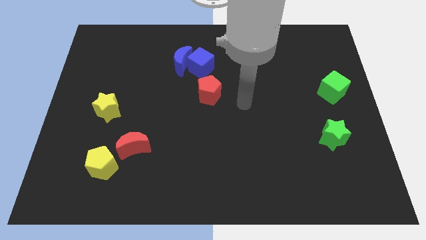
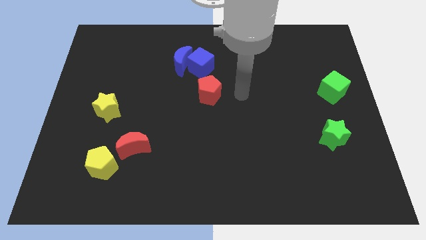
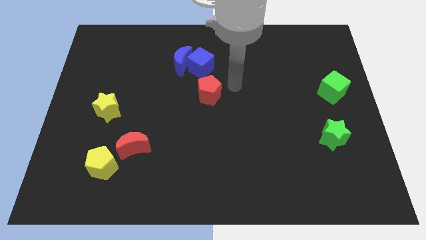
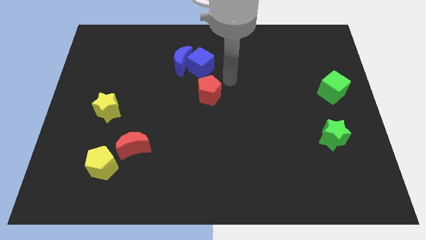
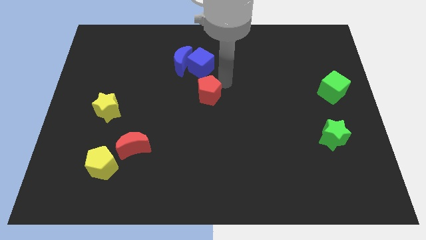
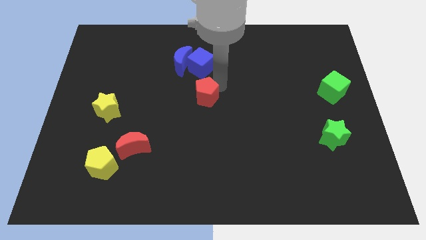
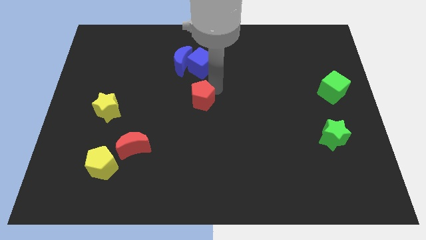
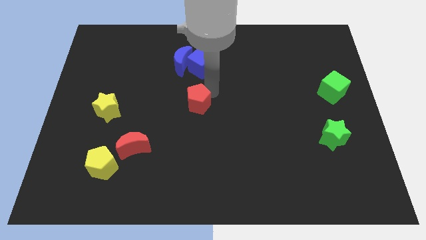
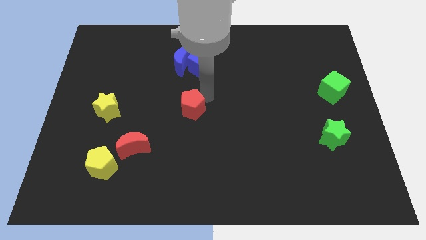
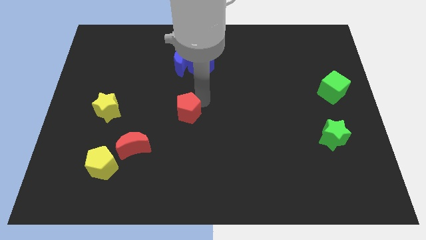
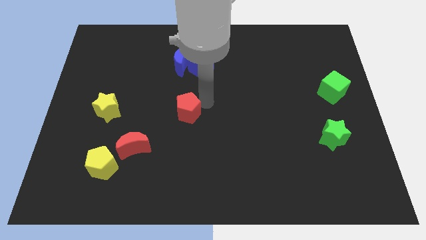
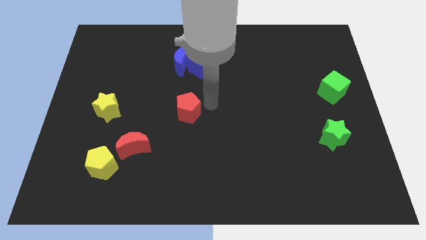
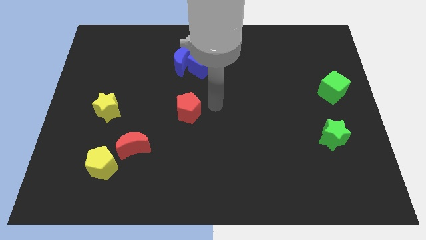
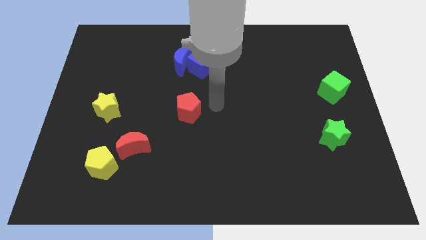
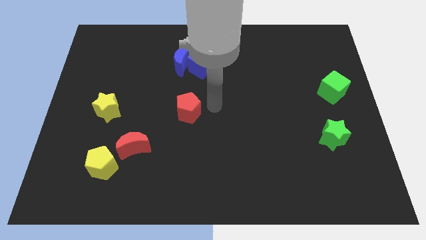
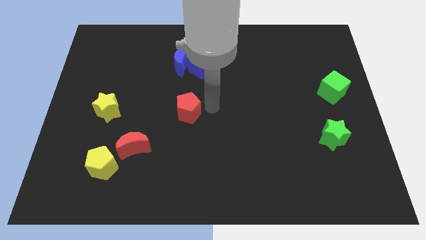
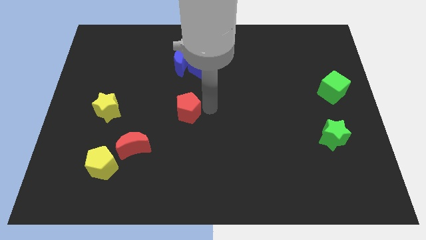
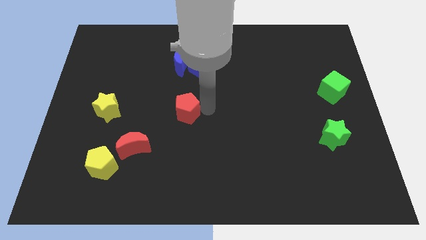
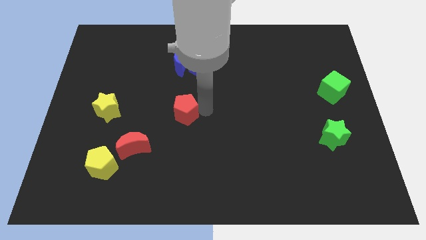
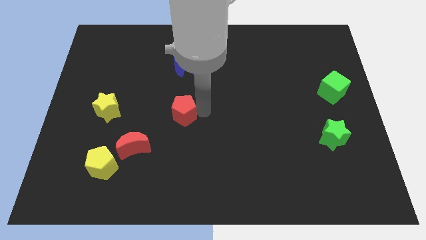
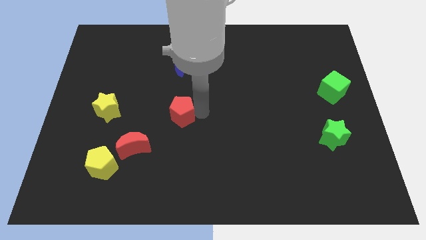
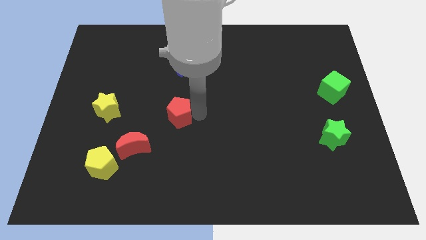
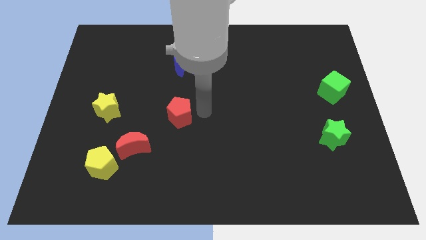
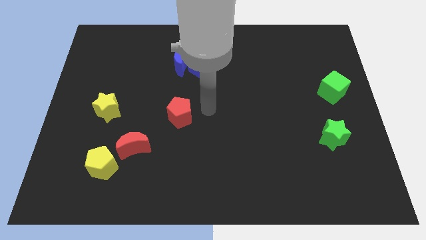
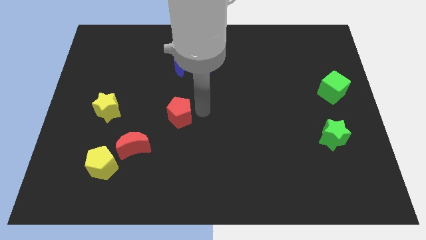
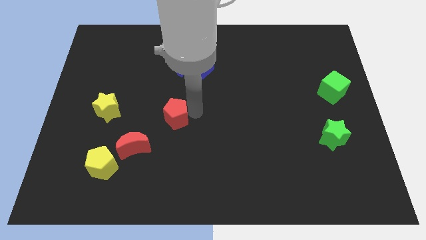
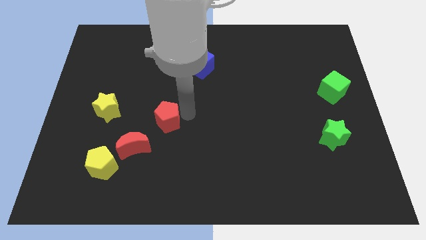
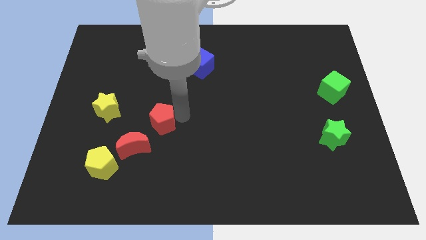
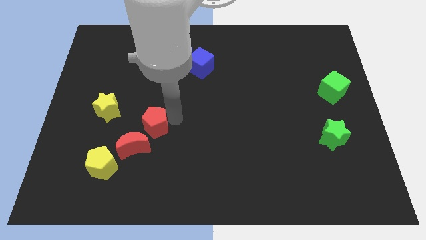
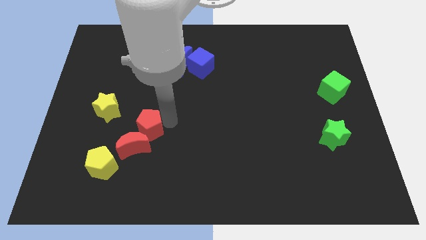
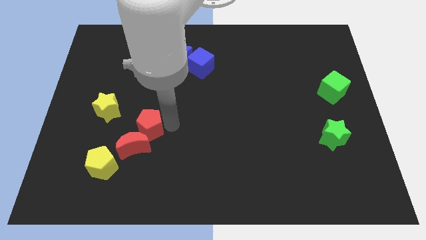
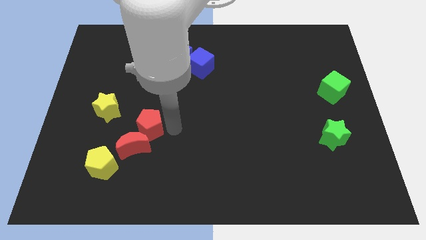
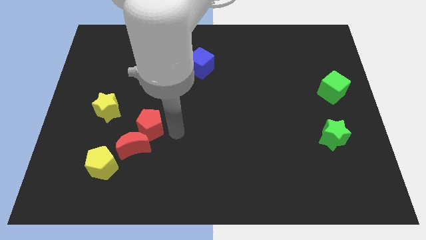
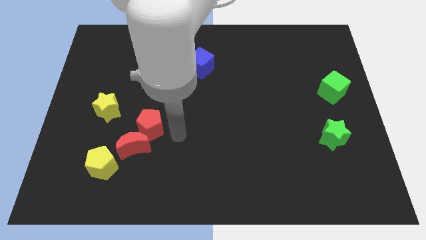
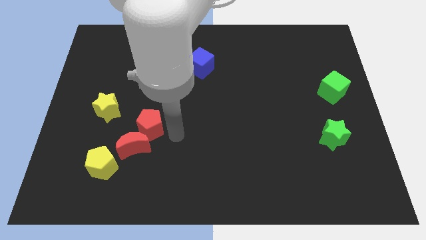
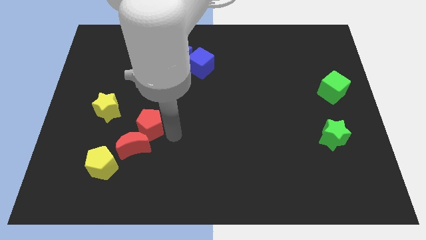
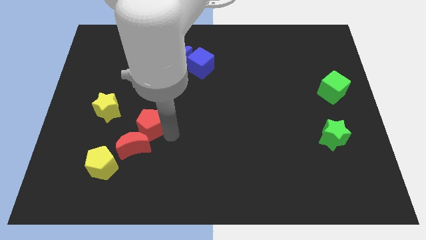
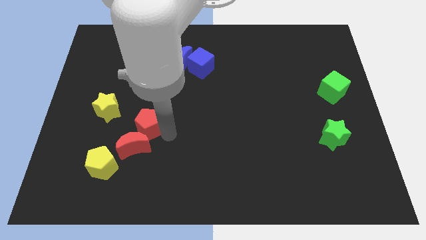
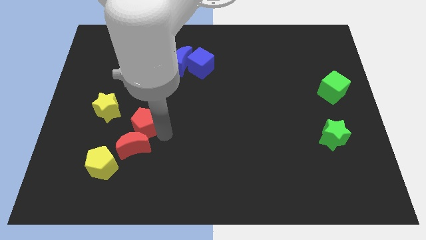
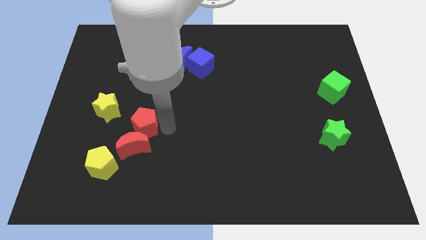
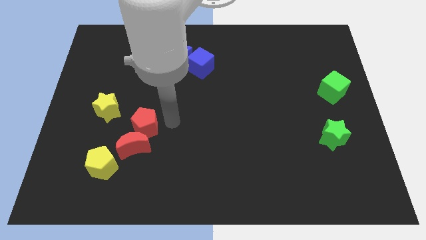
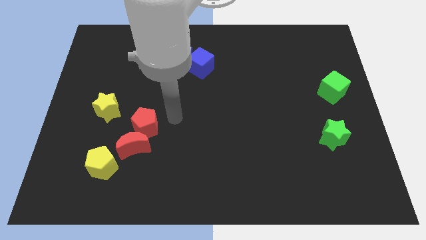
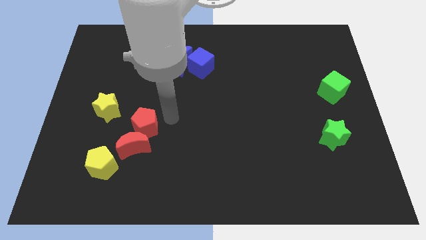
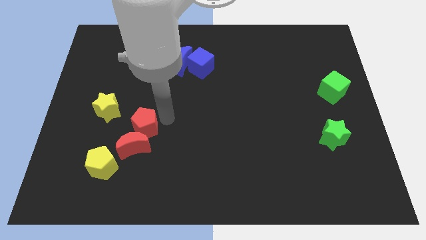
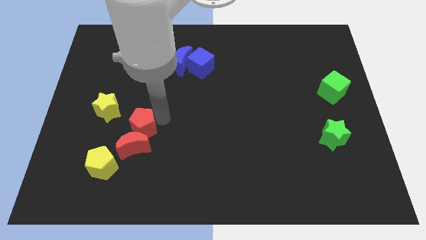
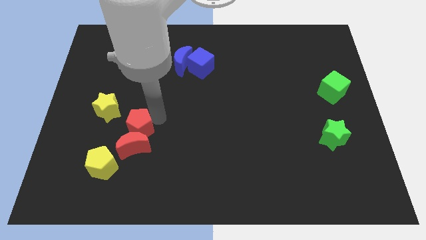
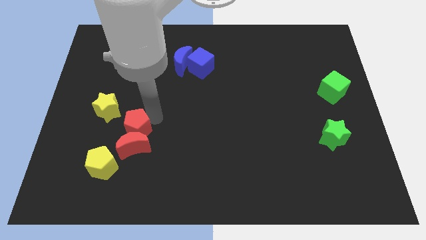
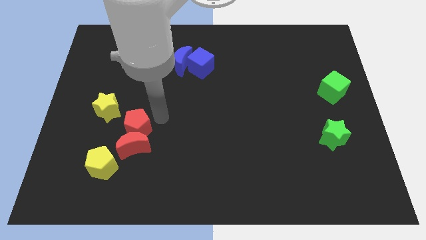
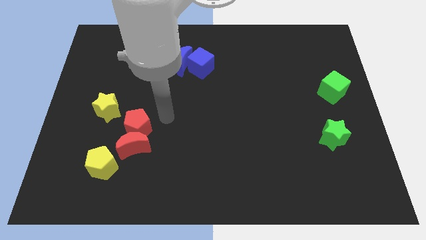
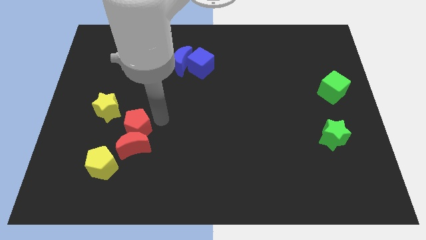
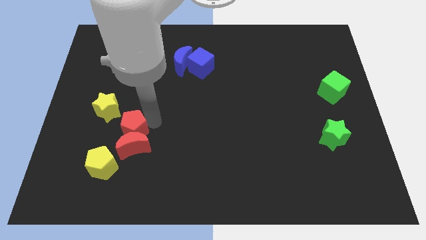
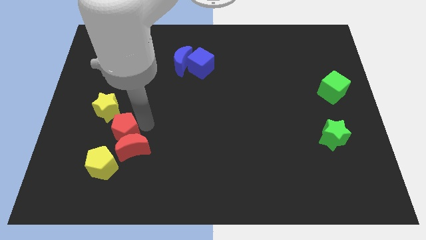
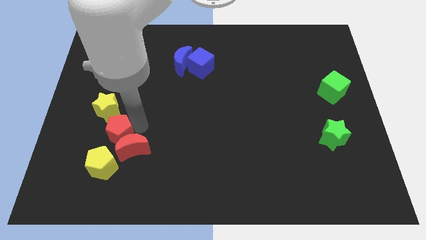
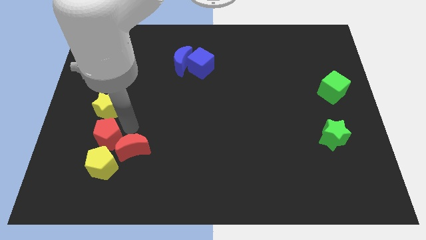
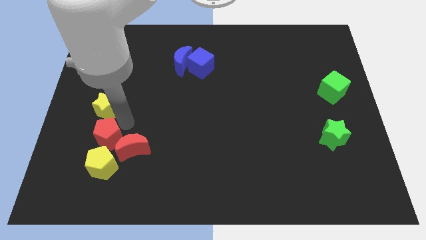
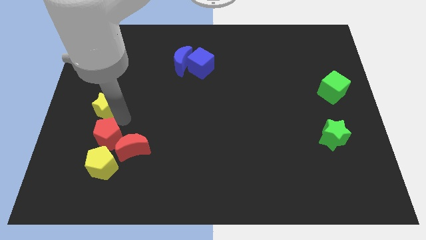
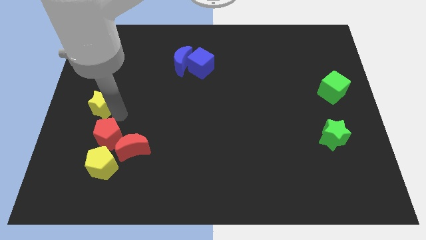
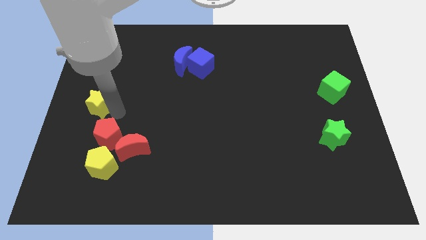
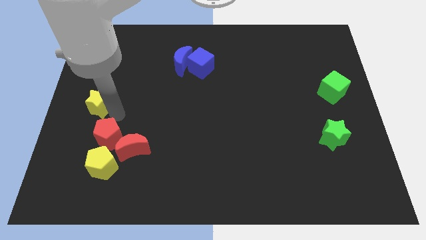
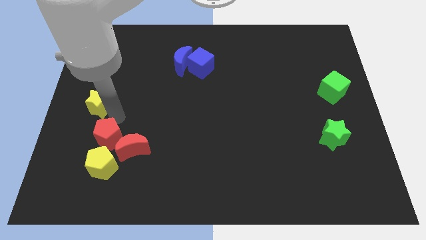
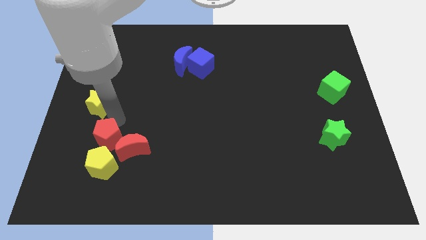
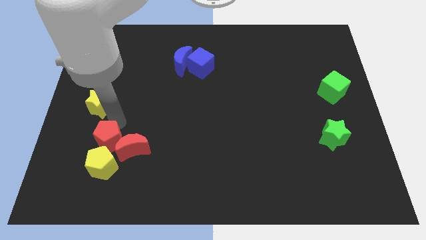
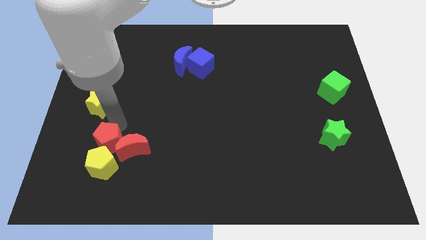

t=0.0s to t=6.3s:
put the red pentagon next to the yellow pentagon

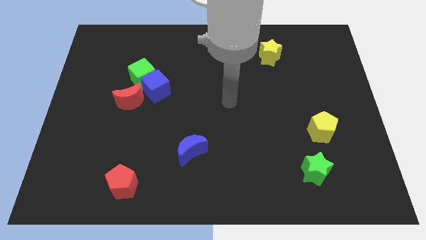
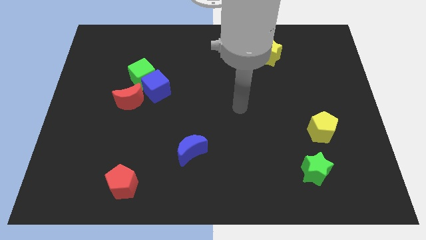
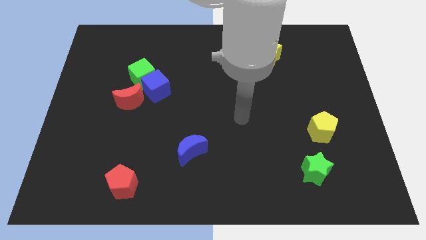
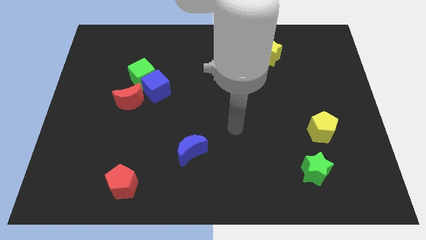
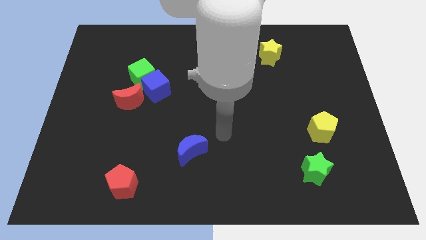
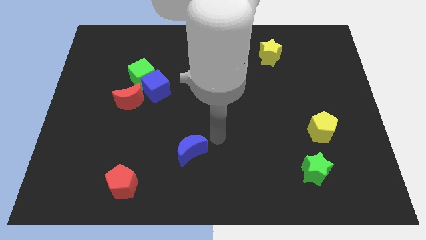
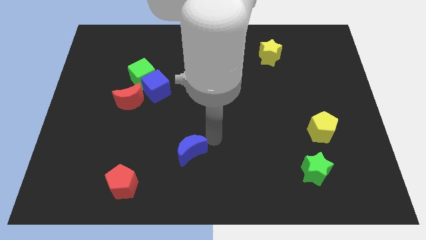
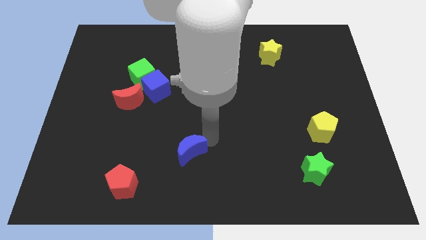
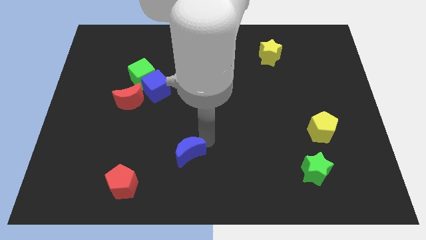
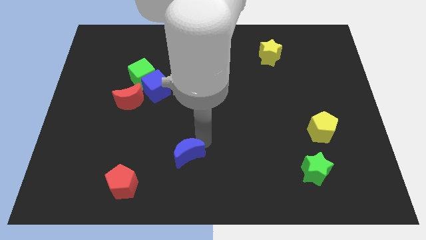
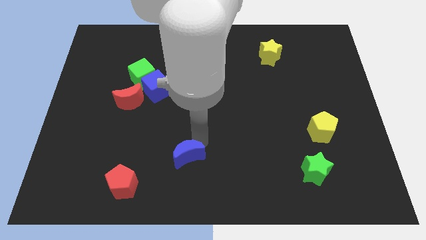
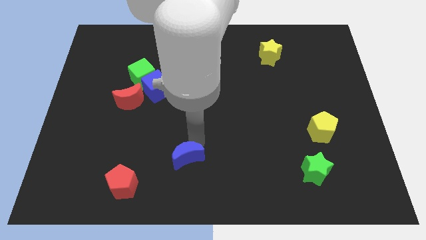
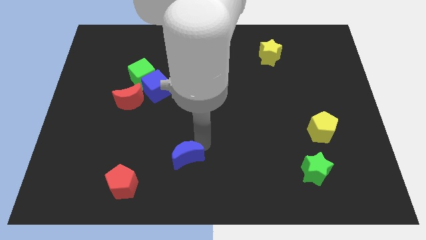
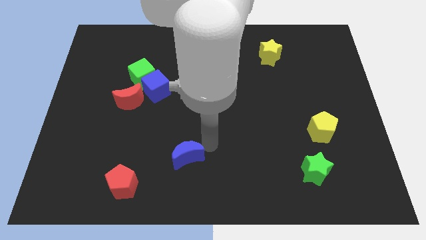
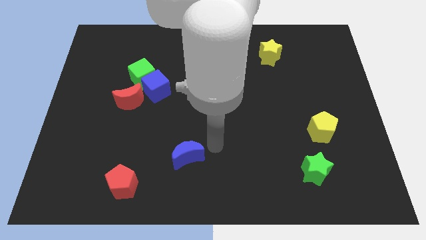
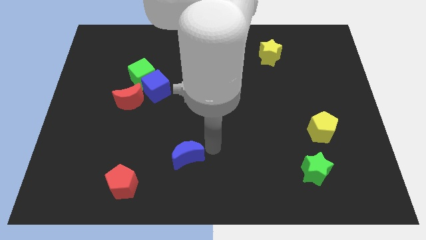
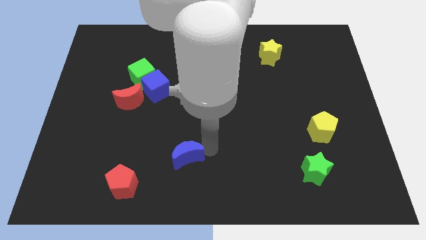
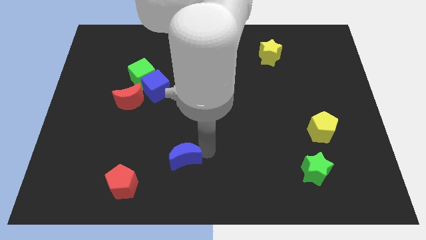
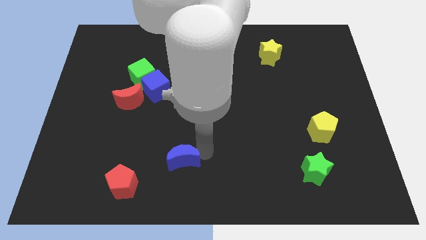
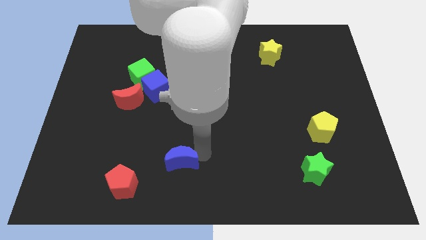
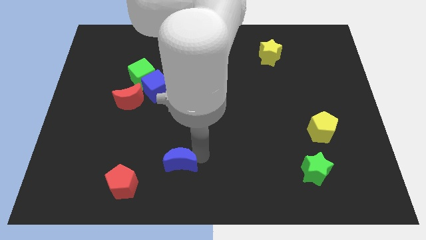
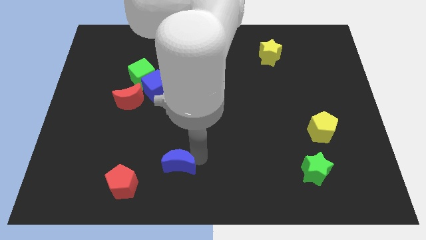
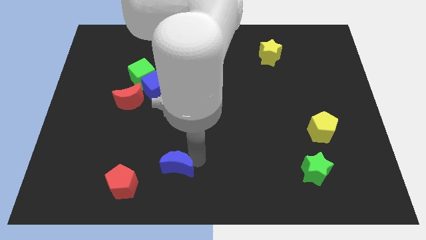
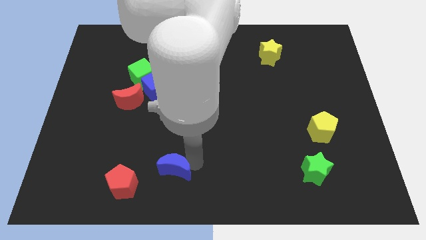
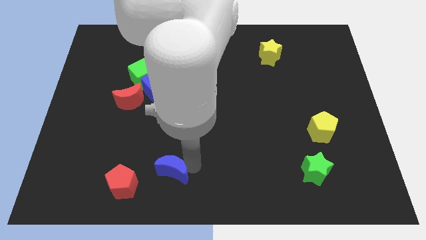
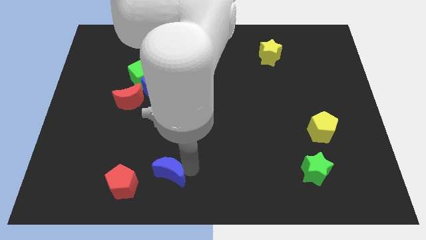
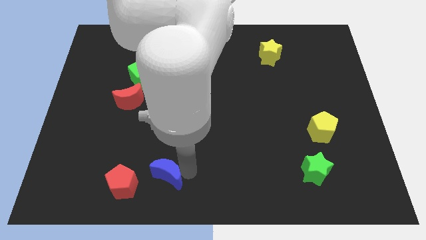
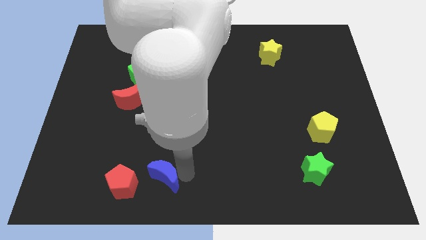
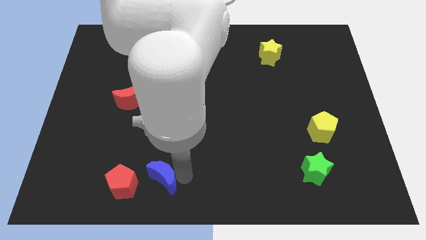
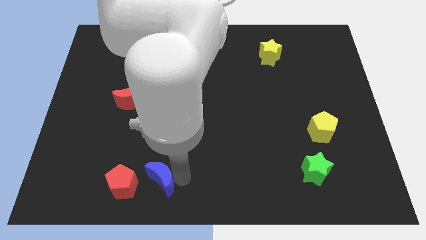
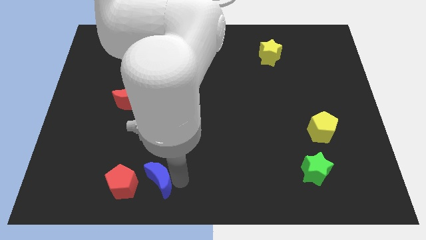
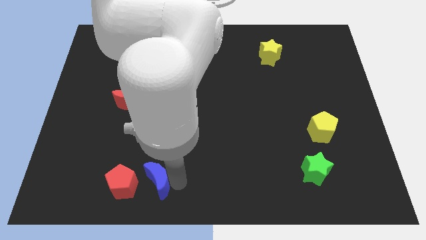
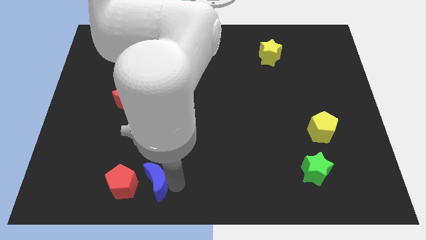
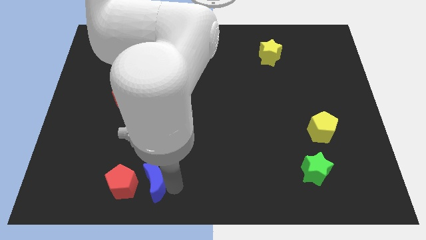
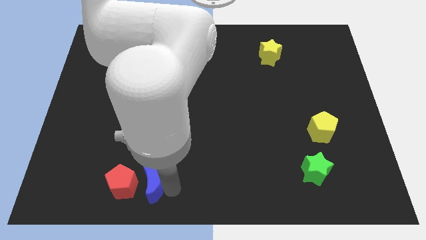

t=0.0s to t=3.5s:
move the blue moon close to the red pentagon
